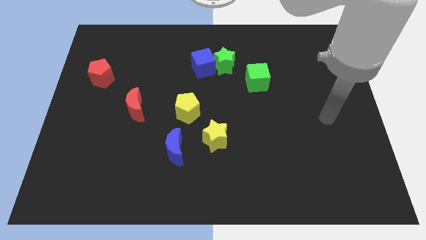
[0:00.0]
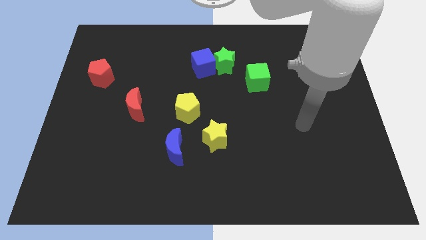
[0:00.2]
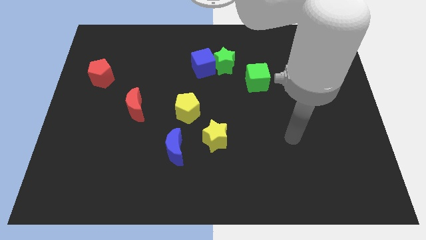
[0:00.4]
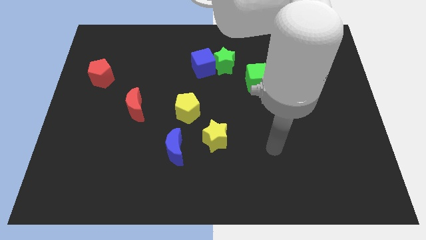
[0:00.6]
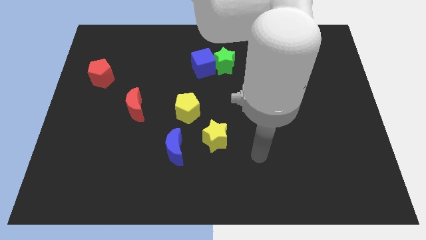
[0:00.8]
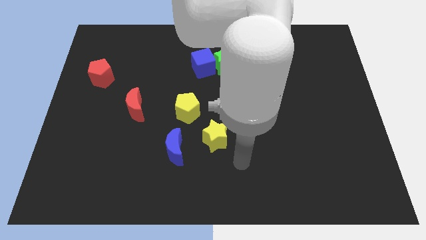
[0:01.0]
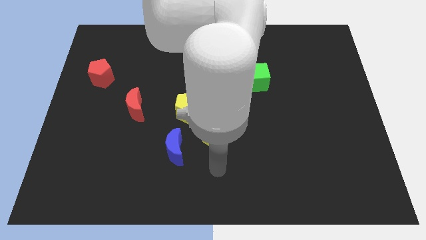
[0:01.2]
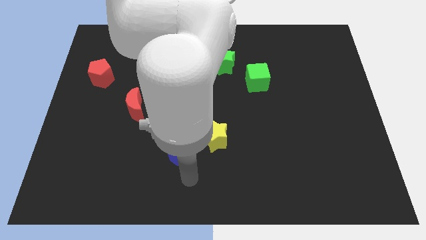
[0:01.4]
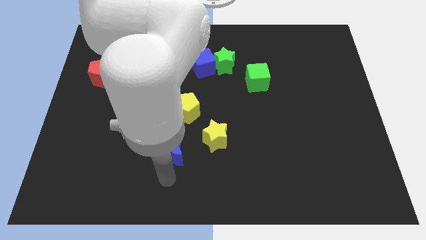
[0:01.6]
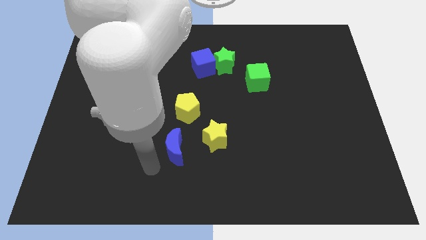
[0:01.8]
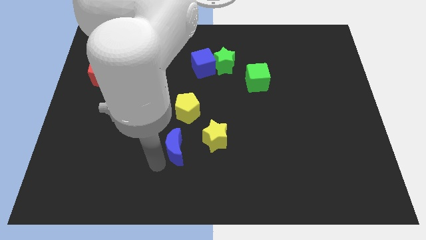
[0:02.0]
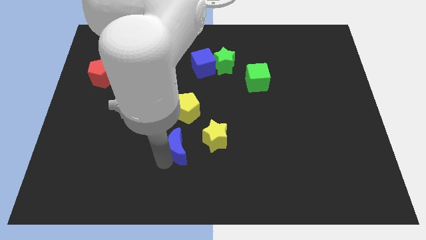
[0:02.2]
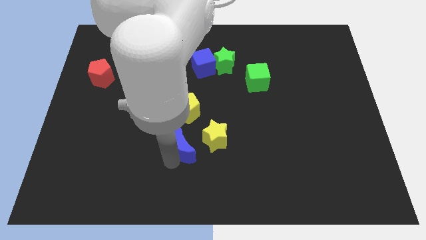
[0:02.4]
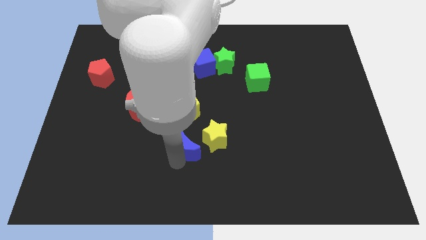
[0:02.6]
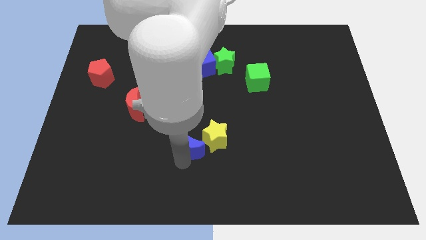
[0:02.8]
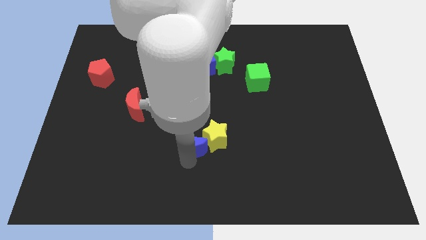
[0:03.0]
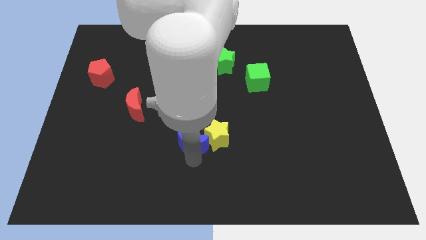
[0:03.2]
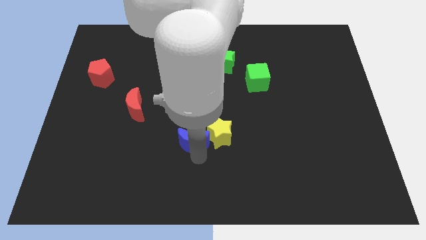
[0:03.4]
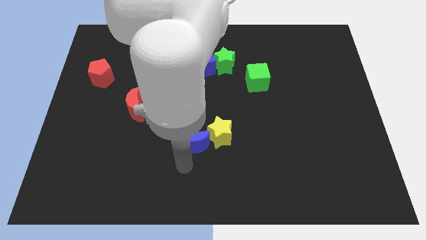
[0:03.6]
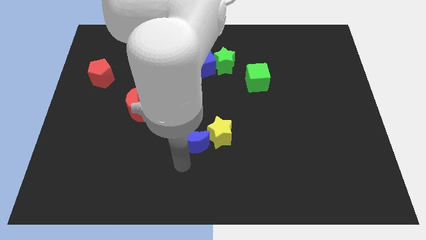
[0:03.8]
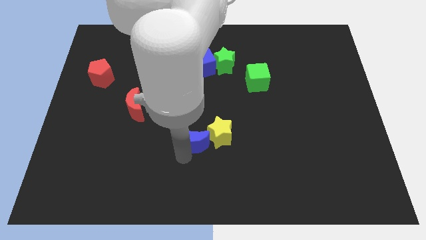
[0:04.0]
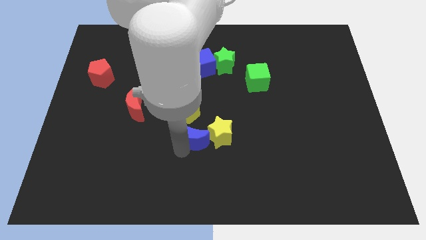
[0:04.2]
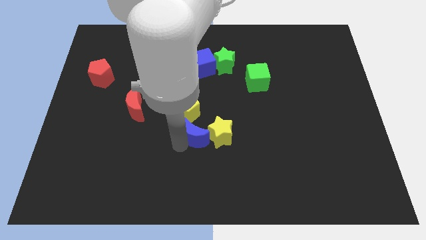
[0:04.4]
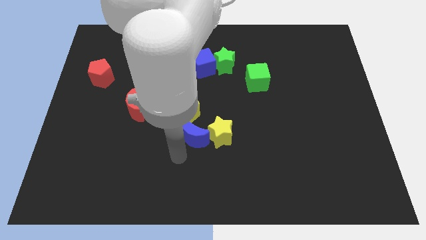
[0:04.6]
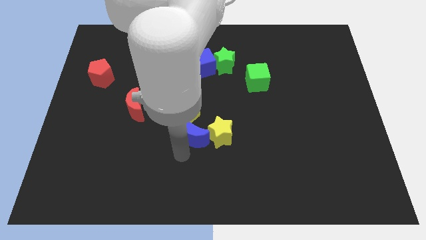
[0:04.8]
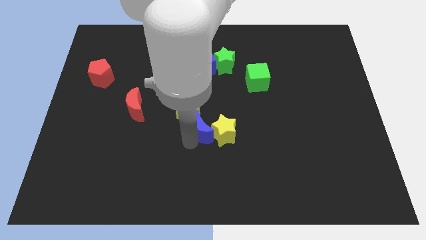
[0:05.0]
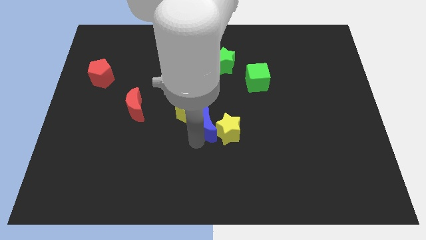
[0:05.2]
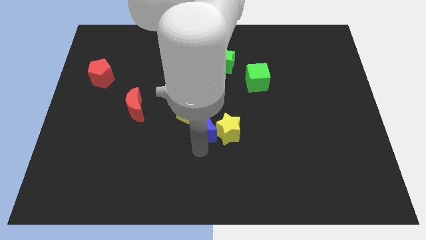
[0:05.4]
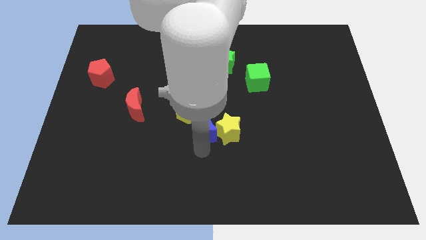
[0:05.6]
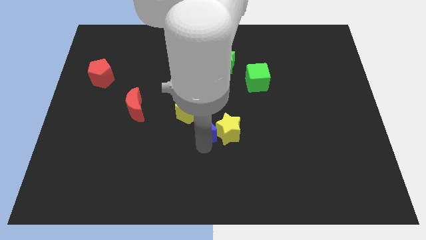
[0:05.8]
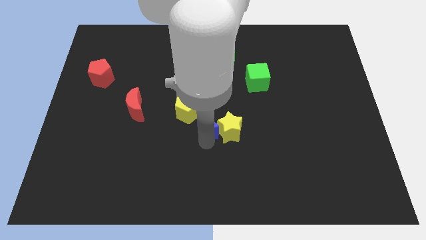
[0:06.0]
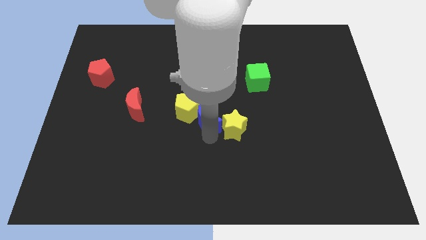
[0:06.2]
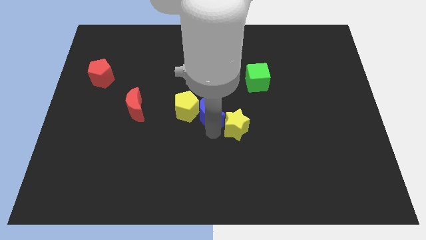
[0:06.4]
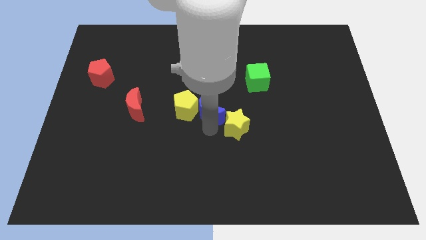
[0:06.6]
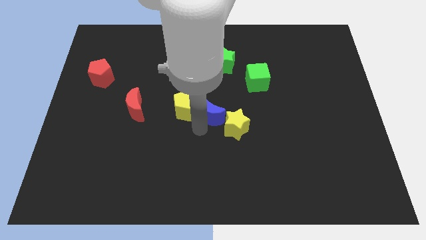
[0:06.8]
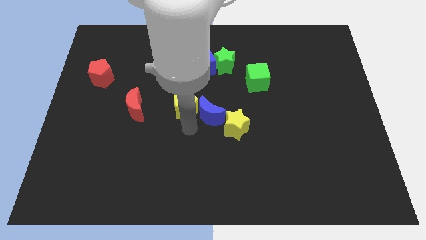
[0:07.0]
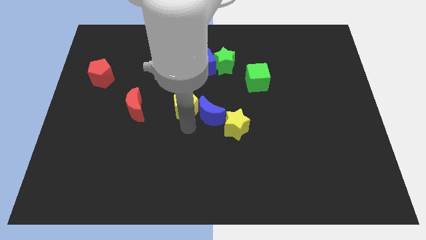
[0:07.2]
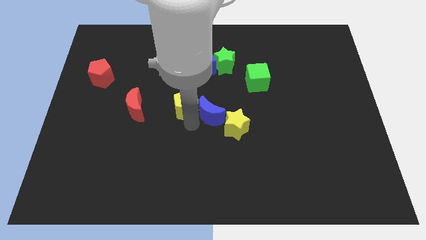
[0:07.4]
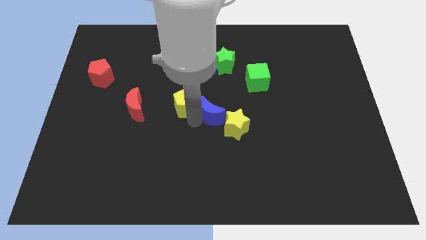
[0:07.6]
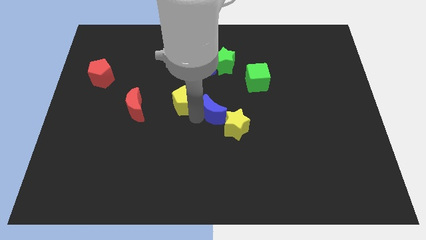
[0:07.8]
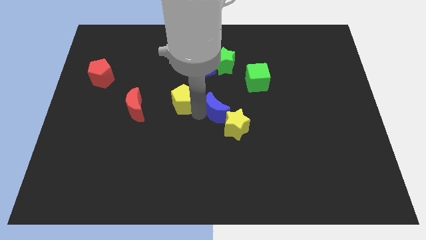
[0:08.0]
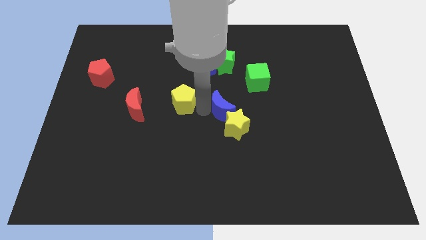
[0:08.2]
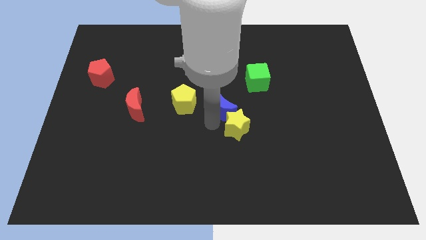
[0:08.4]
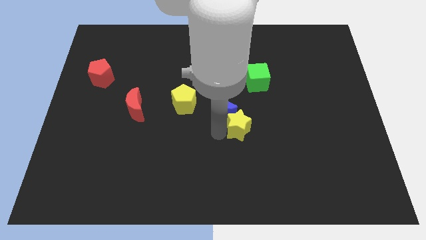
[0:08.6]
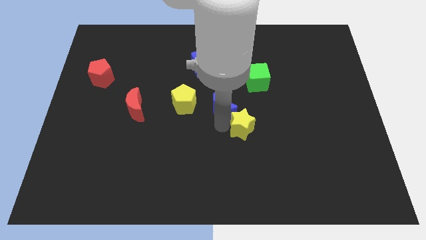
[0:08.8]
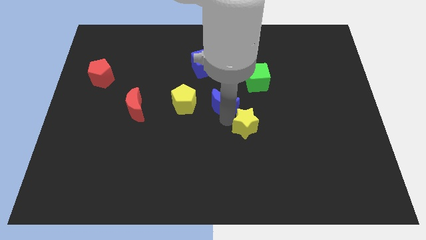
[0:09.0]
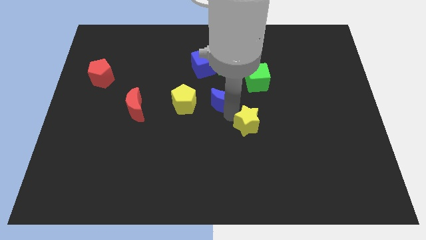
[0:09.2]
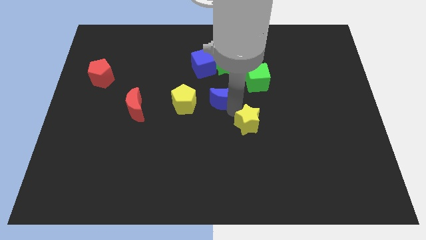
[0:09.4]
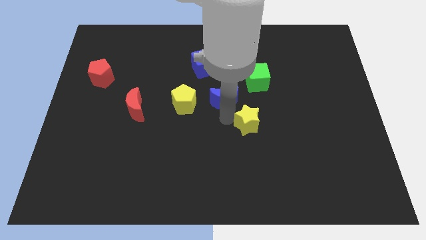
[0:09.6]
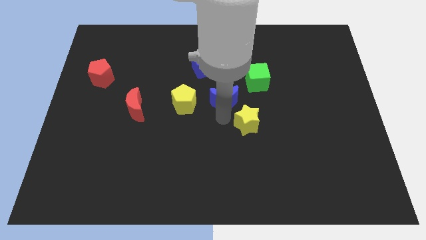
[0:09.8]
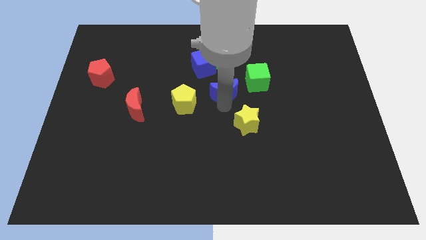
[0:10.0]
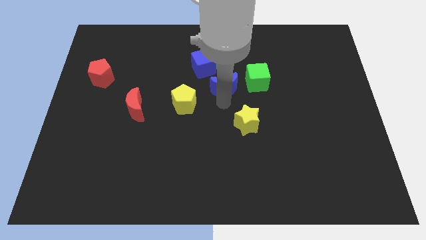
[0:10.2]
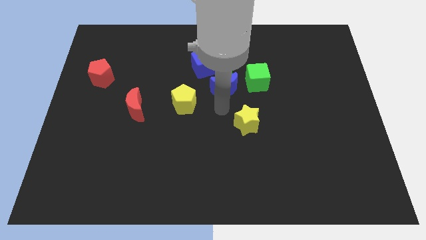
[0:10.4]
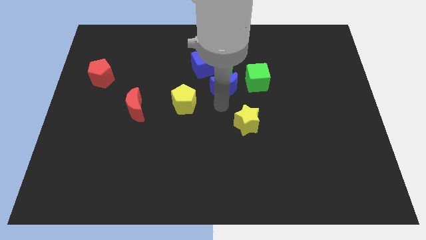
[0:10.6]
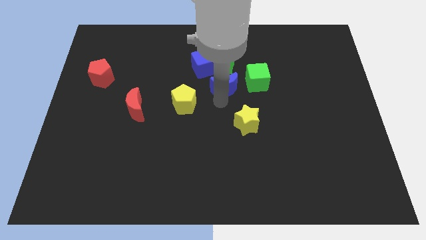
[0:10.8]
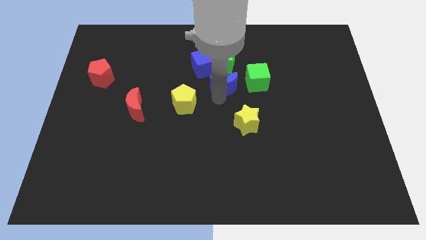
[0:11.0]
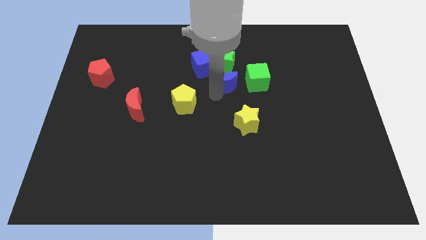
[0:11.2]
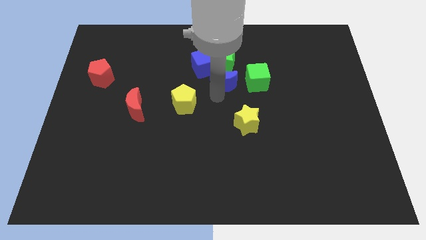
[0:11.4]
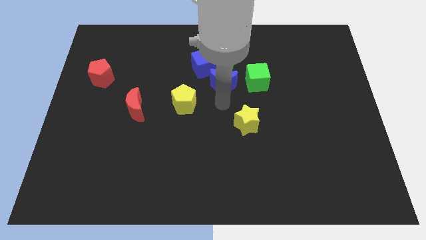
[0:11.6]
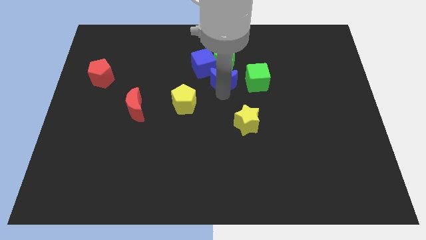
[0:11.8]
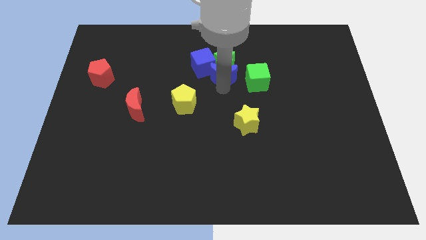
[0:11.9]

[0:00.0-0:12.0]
move the blue moon close to the green star
